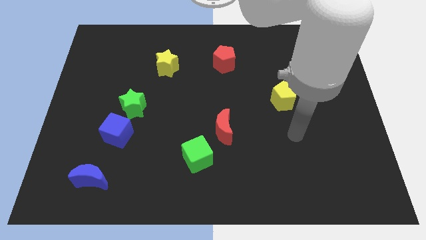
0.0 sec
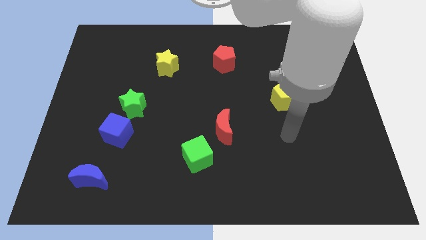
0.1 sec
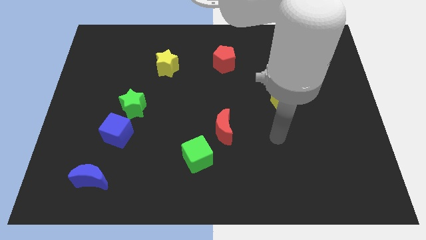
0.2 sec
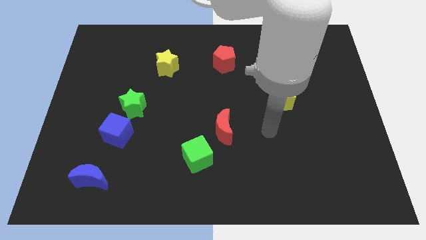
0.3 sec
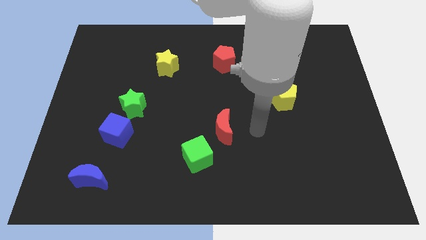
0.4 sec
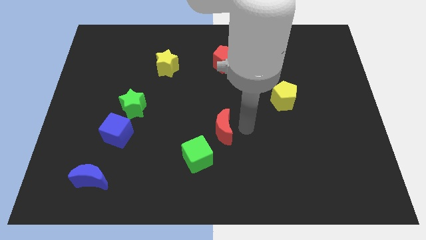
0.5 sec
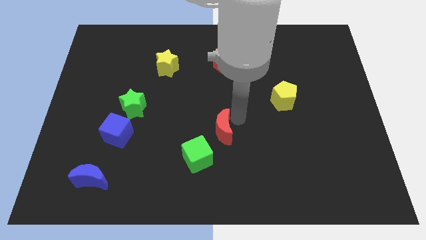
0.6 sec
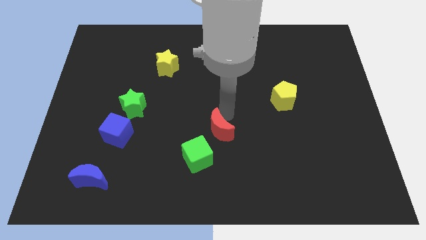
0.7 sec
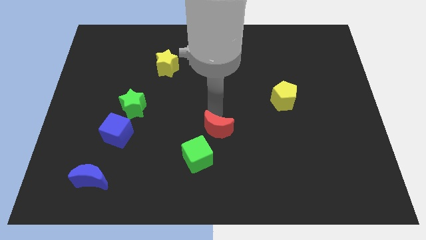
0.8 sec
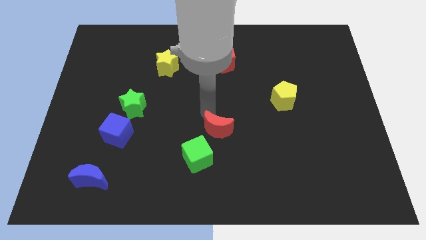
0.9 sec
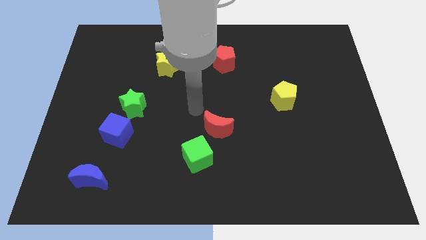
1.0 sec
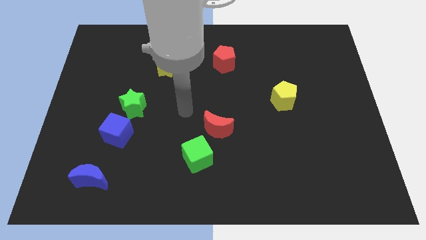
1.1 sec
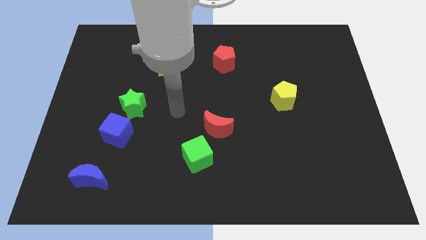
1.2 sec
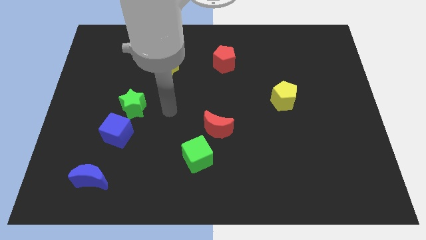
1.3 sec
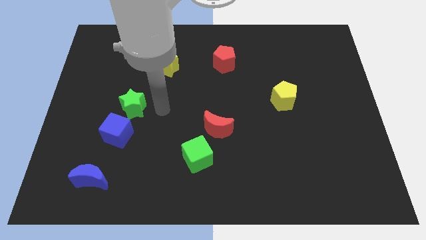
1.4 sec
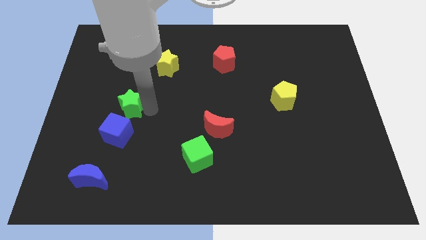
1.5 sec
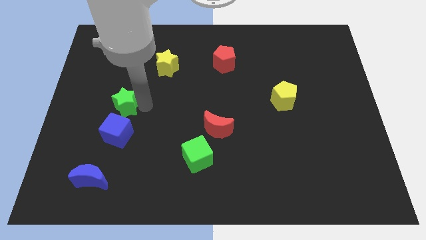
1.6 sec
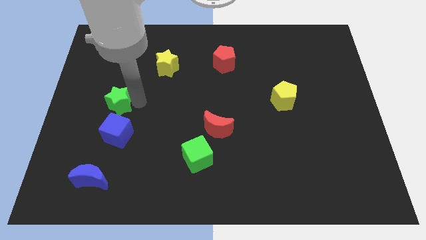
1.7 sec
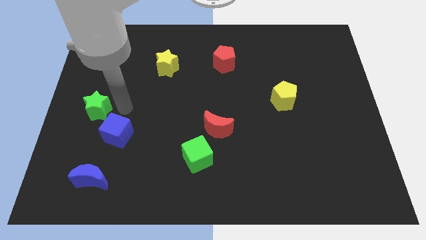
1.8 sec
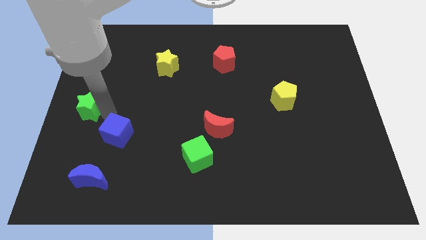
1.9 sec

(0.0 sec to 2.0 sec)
pull the blue cube apart from the green star

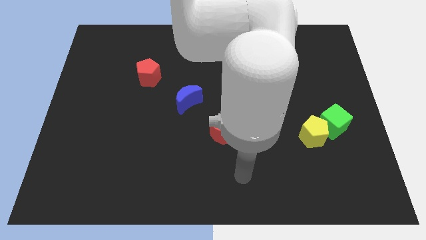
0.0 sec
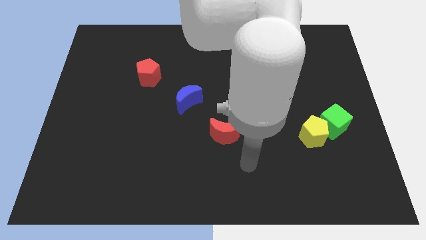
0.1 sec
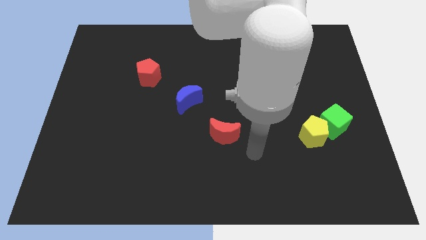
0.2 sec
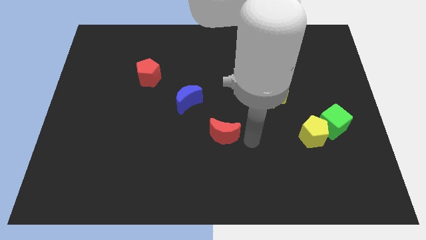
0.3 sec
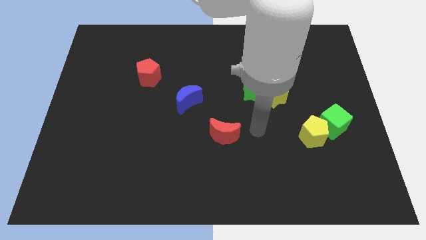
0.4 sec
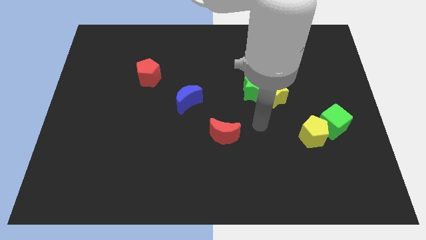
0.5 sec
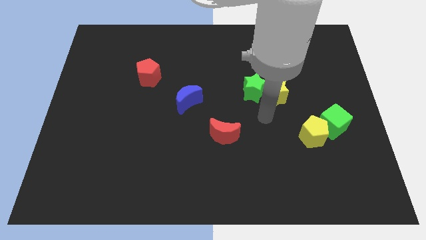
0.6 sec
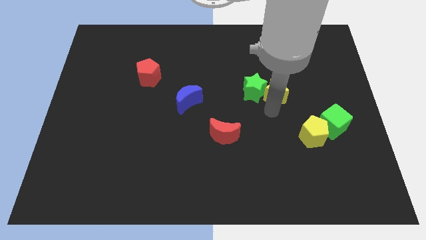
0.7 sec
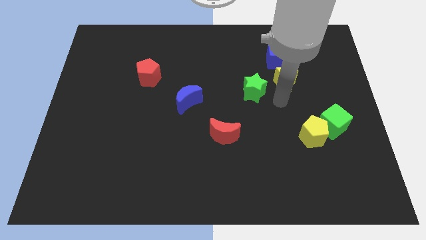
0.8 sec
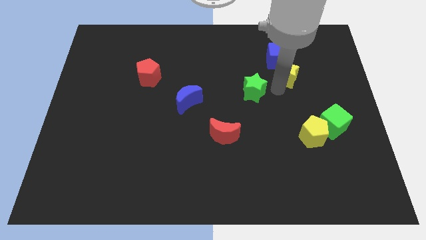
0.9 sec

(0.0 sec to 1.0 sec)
separate the green star from the yellow star

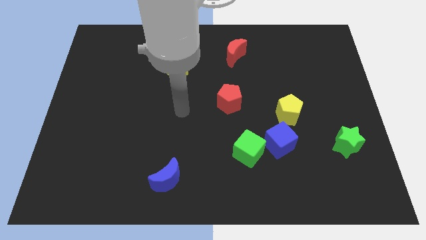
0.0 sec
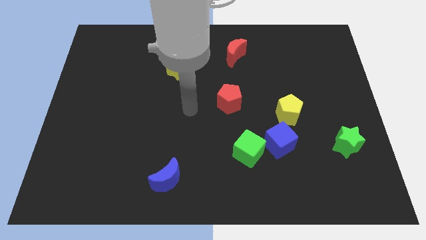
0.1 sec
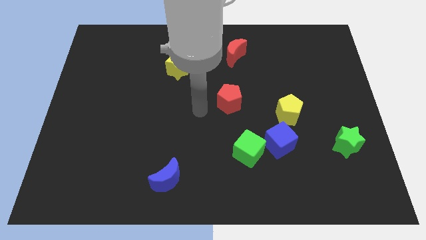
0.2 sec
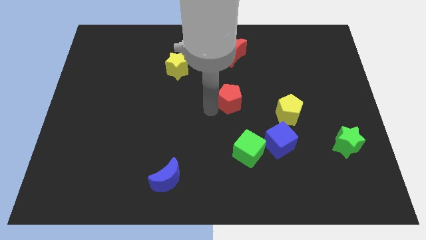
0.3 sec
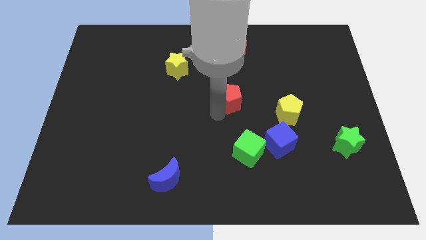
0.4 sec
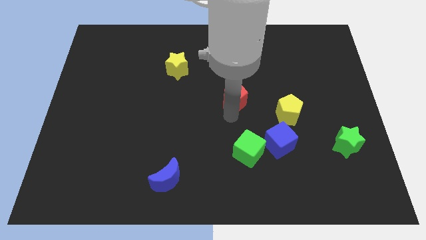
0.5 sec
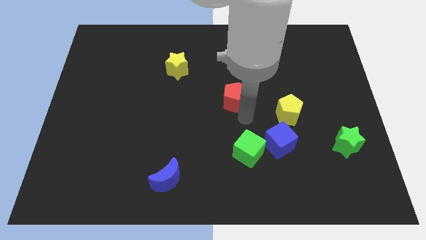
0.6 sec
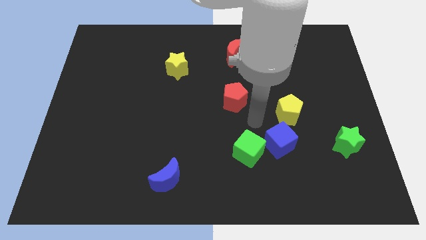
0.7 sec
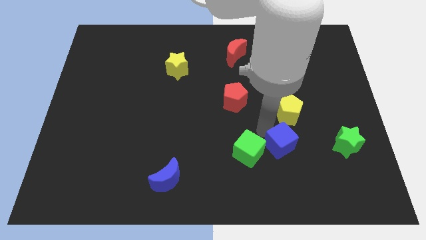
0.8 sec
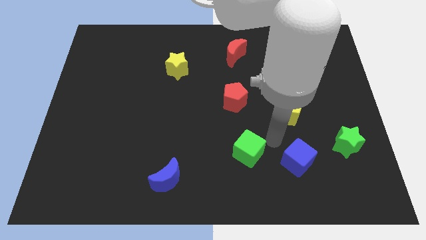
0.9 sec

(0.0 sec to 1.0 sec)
move the green cube away from the blue cube

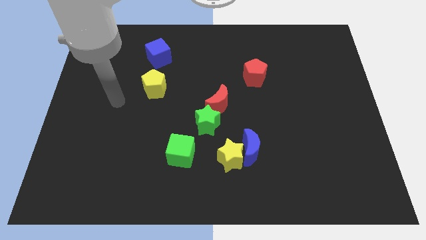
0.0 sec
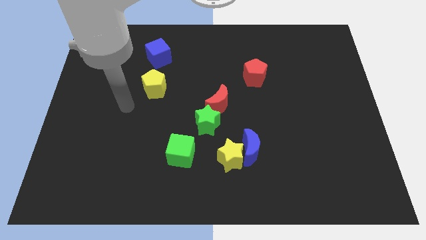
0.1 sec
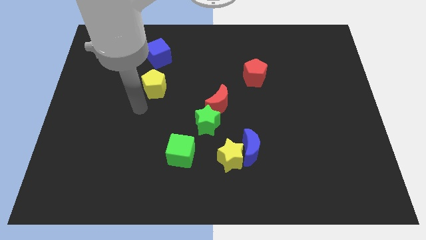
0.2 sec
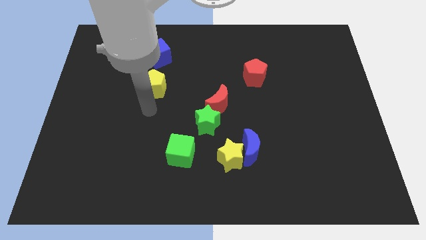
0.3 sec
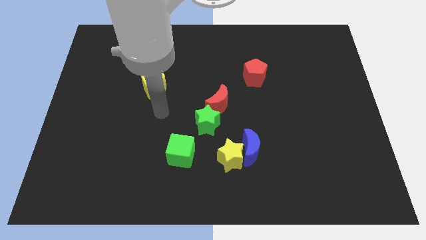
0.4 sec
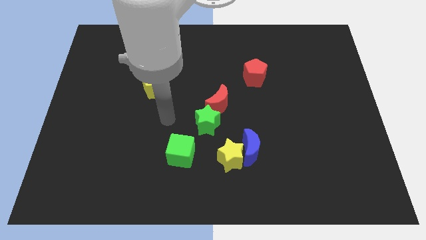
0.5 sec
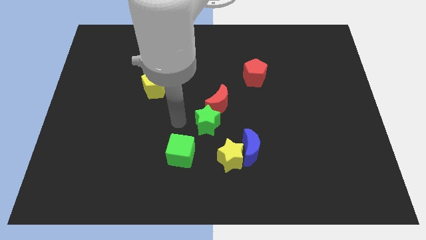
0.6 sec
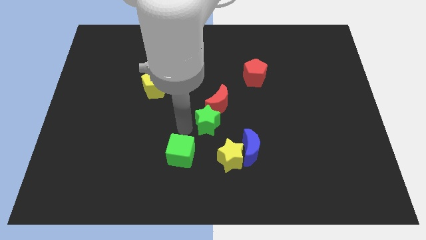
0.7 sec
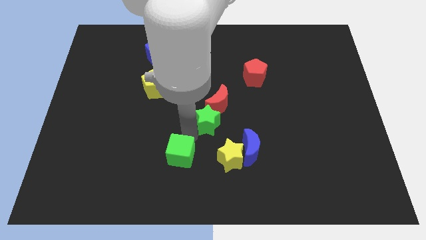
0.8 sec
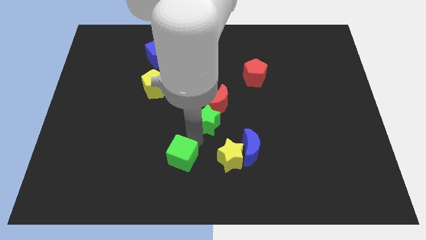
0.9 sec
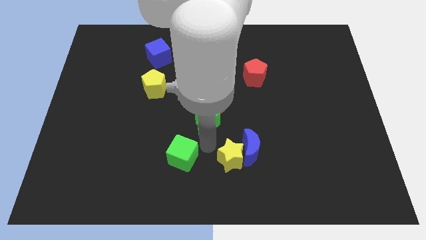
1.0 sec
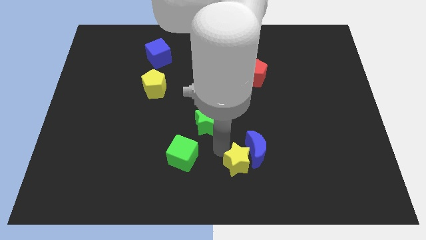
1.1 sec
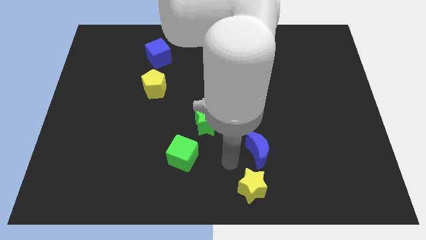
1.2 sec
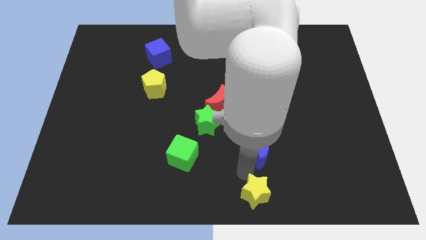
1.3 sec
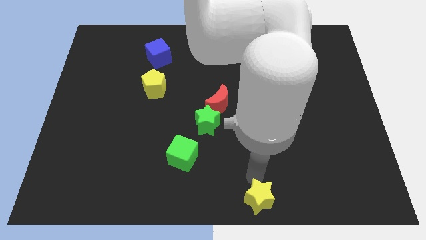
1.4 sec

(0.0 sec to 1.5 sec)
separate the blue moon from the yellow star

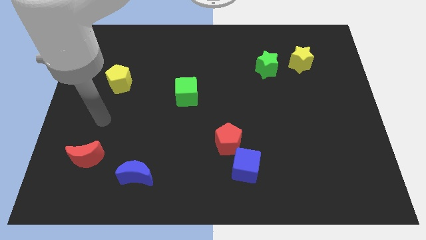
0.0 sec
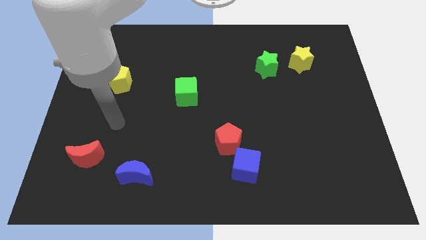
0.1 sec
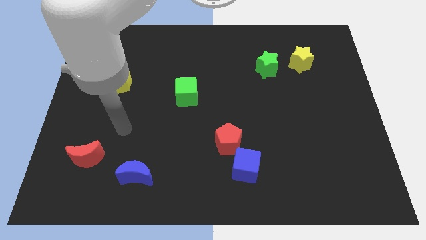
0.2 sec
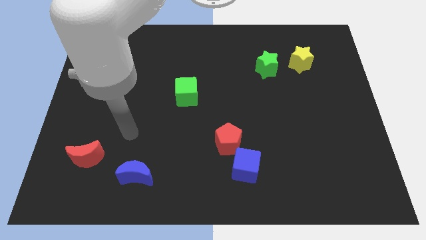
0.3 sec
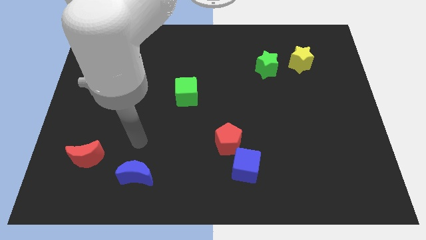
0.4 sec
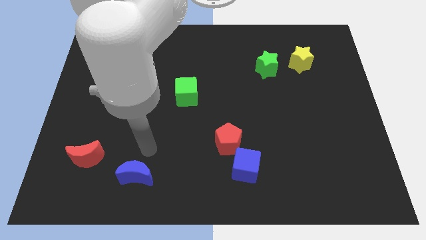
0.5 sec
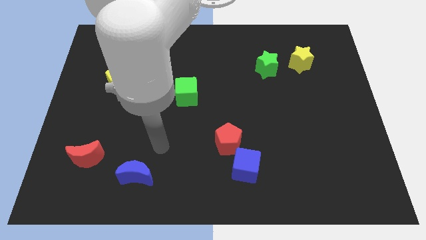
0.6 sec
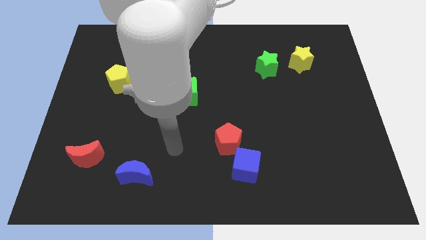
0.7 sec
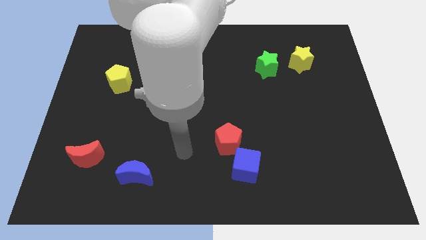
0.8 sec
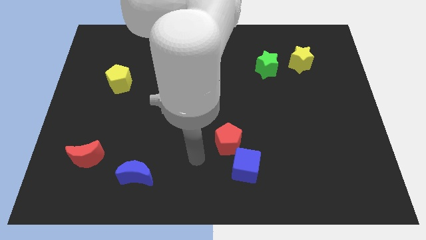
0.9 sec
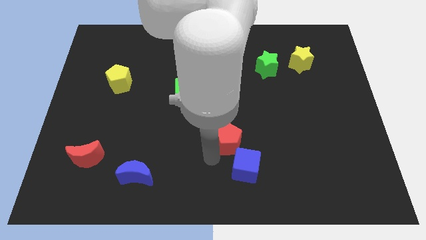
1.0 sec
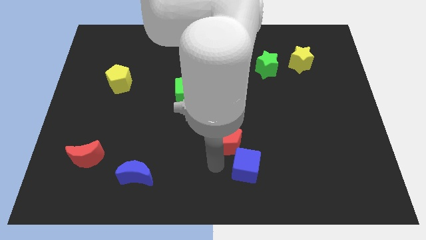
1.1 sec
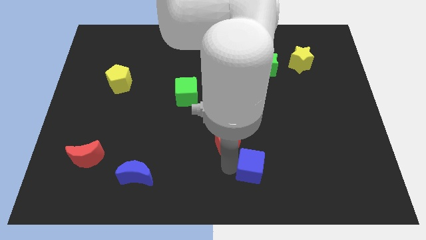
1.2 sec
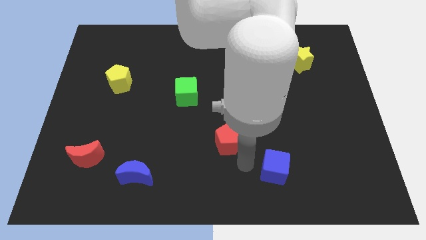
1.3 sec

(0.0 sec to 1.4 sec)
pull the red pentagon apart from the blue cube

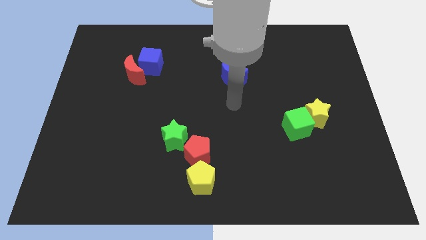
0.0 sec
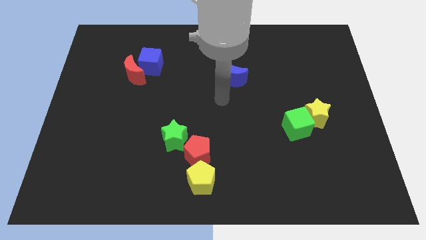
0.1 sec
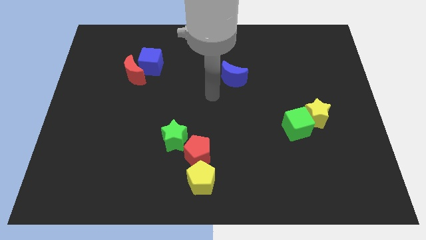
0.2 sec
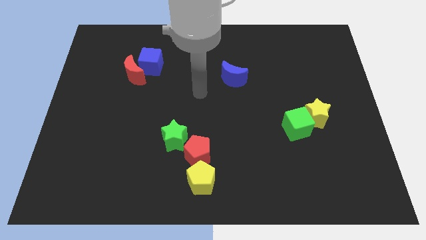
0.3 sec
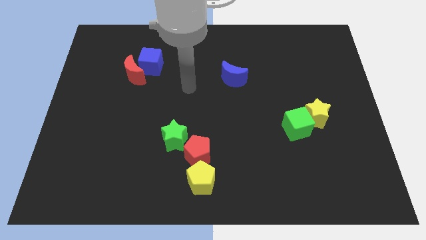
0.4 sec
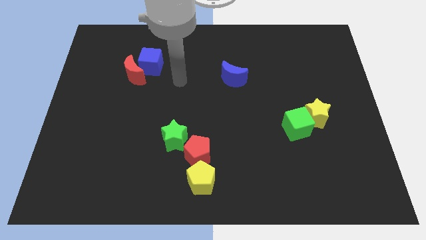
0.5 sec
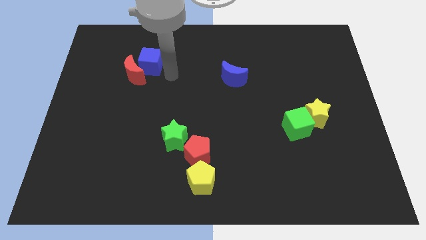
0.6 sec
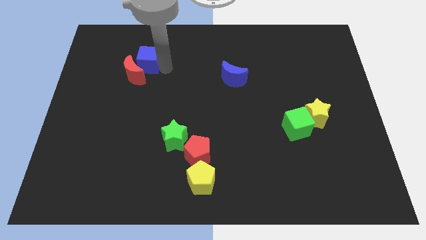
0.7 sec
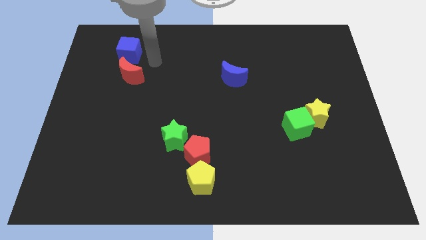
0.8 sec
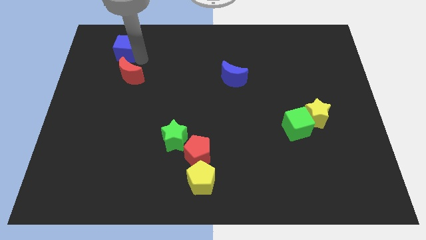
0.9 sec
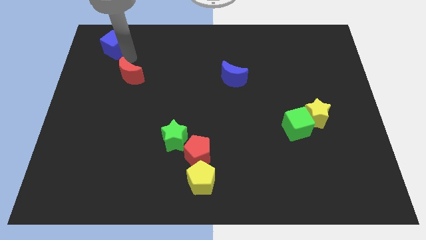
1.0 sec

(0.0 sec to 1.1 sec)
move the red moon away from the blue cube

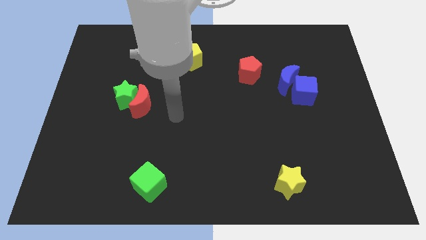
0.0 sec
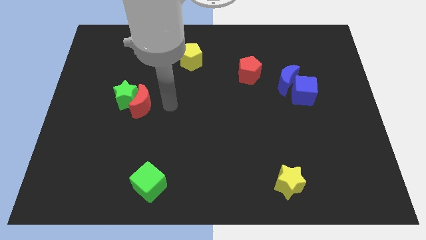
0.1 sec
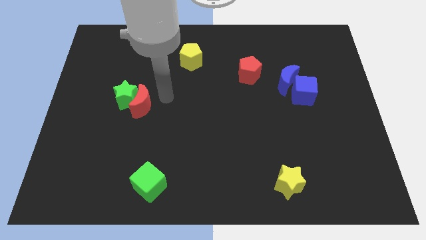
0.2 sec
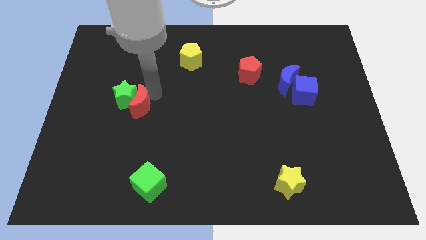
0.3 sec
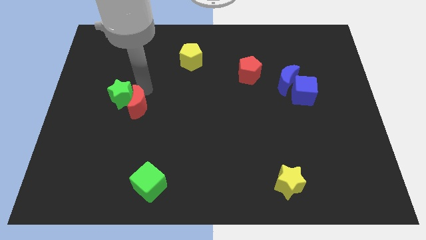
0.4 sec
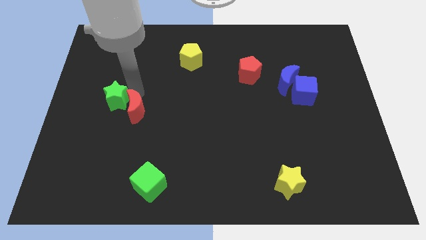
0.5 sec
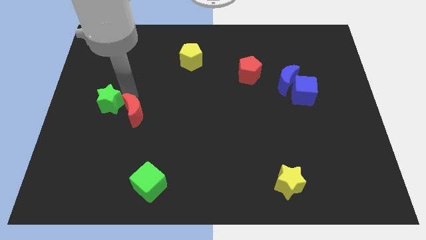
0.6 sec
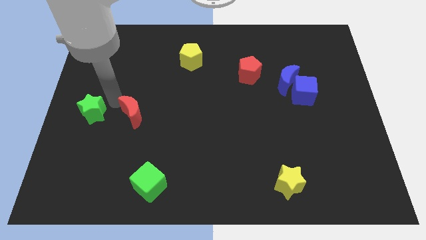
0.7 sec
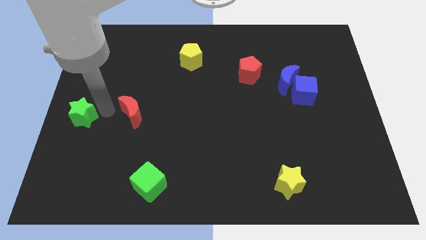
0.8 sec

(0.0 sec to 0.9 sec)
pull the red moon apart from the green star

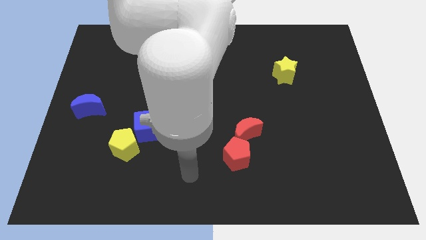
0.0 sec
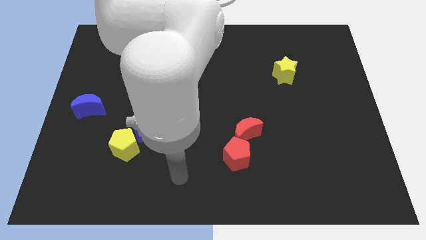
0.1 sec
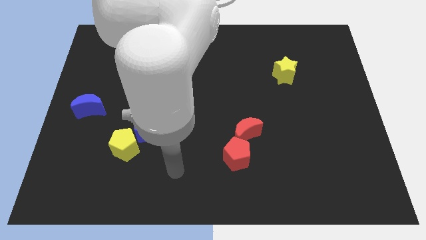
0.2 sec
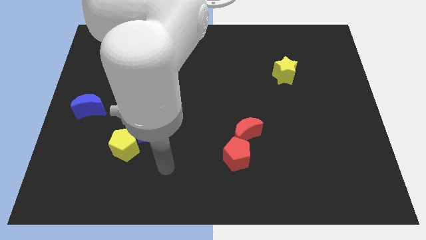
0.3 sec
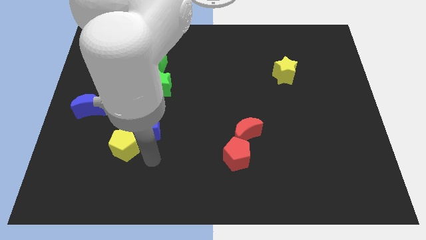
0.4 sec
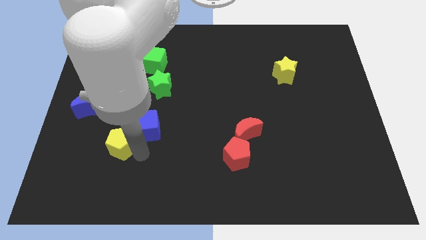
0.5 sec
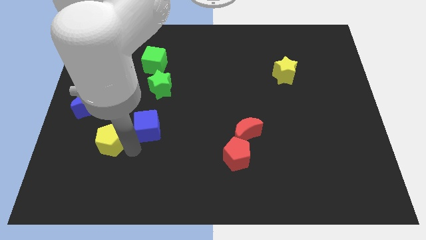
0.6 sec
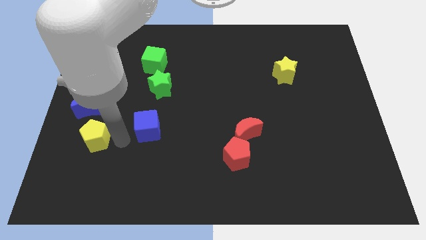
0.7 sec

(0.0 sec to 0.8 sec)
move the blue cube away from the yellow pentagon
